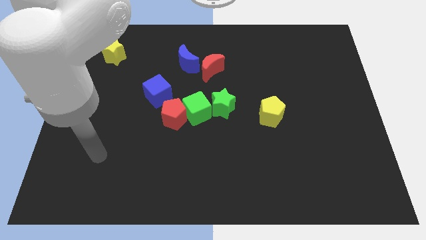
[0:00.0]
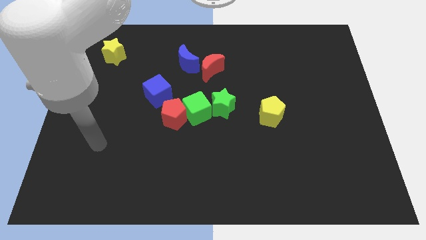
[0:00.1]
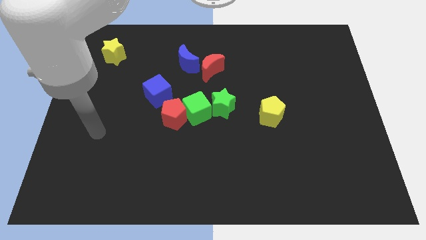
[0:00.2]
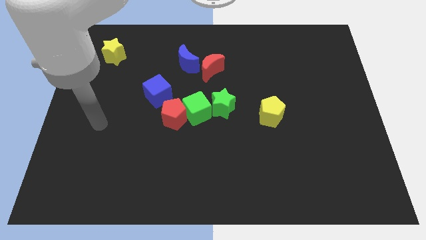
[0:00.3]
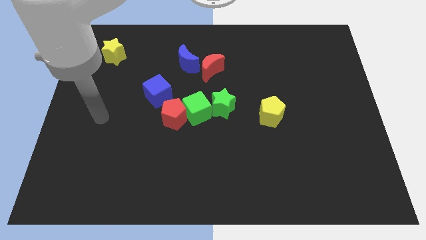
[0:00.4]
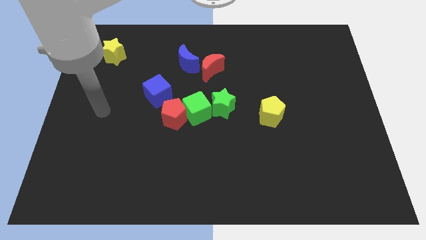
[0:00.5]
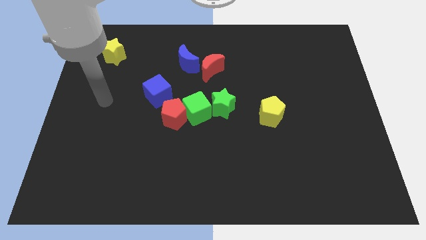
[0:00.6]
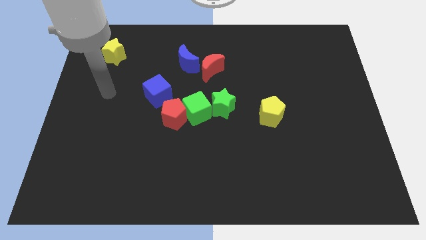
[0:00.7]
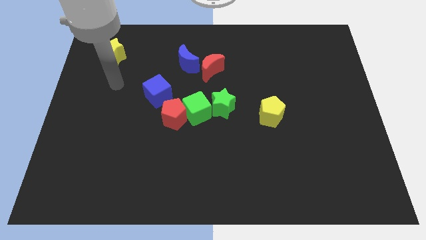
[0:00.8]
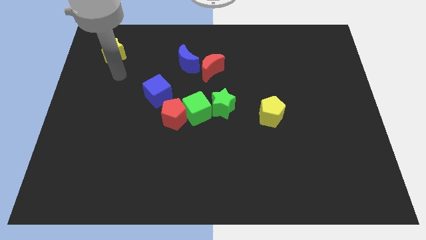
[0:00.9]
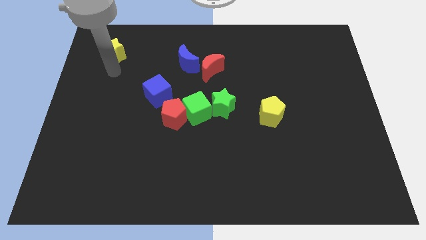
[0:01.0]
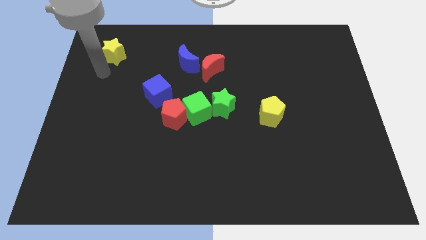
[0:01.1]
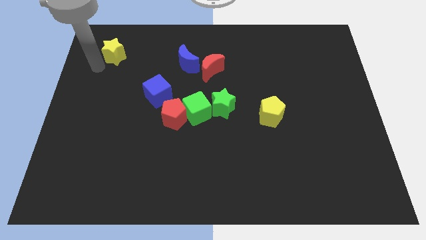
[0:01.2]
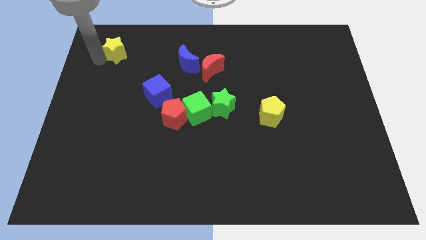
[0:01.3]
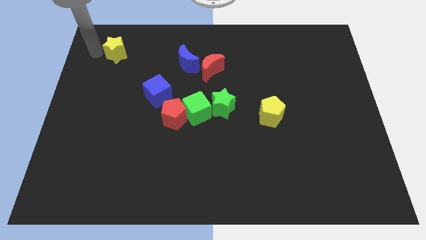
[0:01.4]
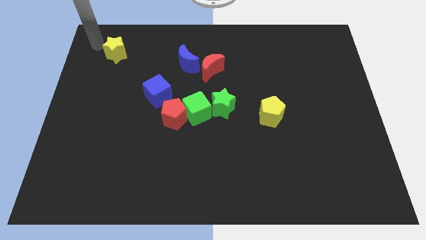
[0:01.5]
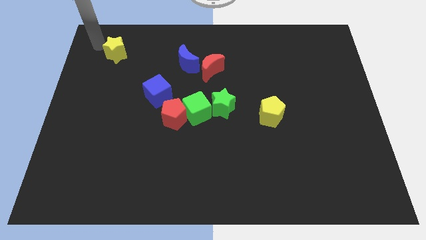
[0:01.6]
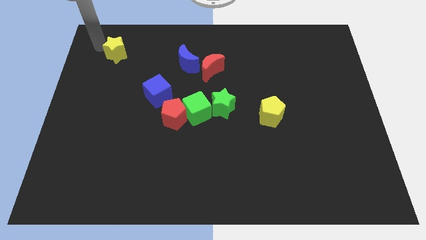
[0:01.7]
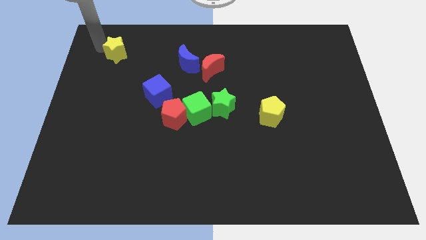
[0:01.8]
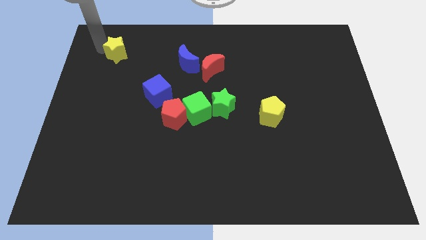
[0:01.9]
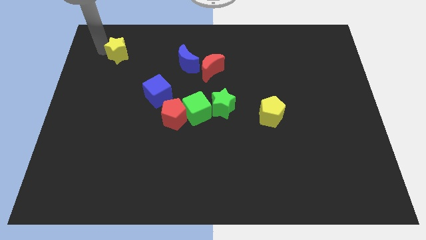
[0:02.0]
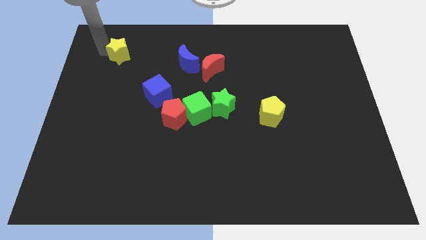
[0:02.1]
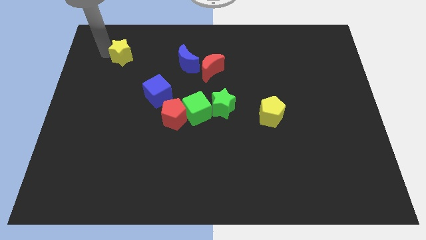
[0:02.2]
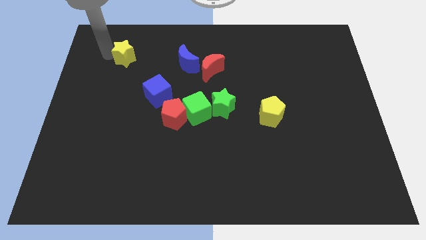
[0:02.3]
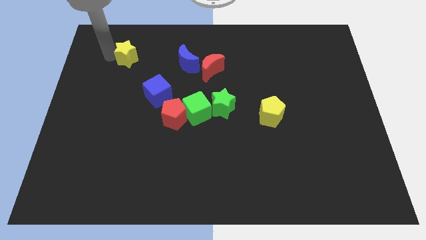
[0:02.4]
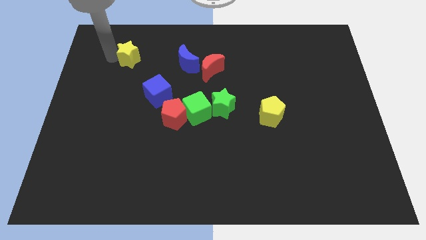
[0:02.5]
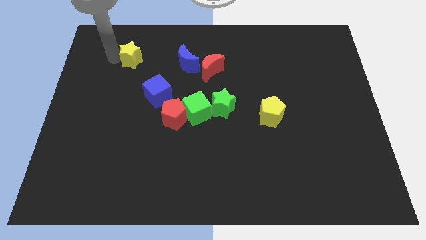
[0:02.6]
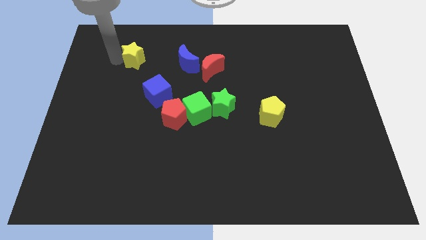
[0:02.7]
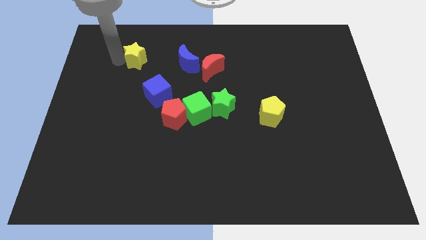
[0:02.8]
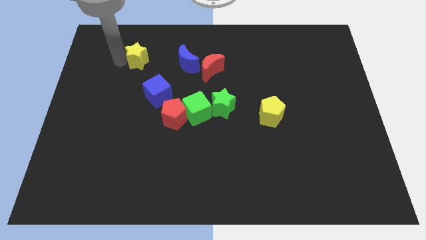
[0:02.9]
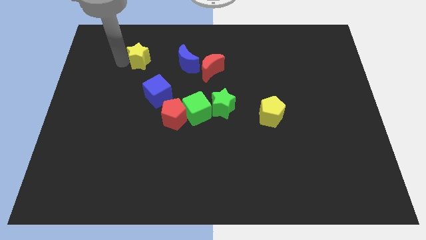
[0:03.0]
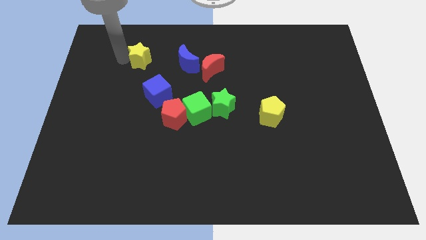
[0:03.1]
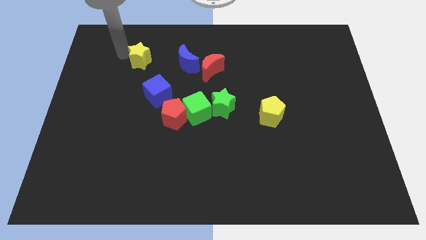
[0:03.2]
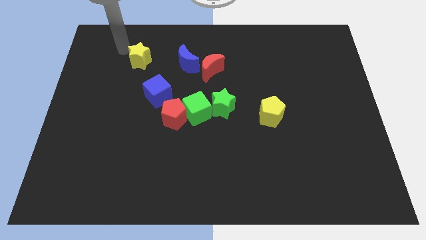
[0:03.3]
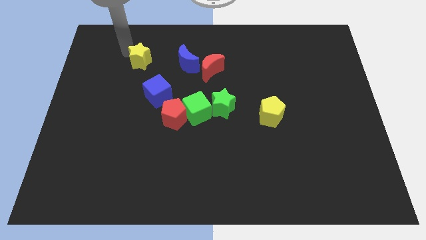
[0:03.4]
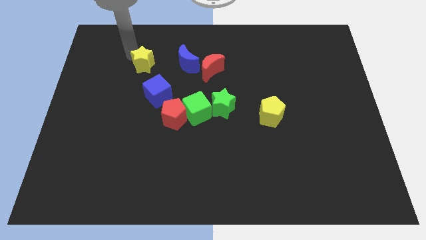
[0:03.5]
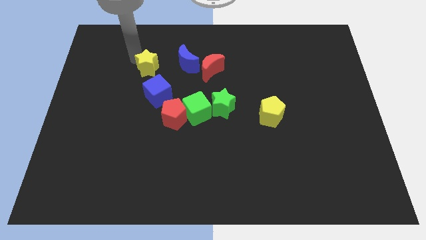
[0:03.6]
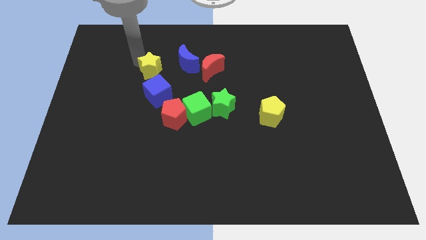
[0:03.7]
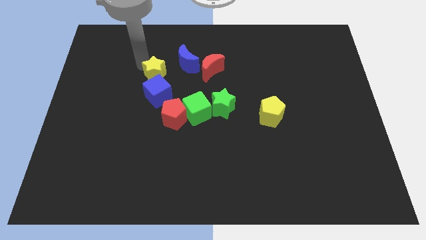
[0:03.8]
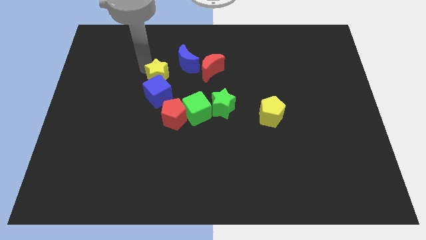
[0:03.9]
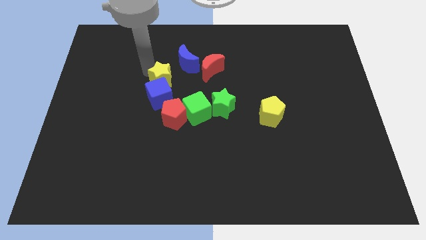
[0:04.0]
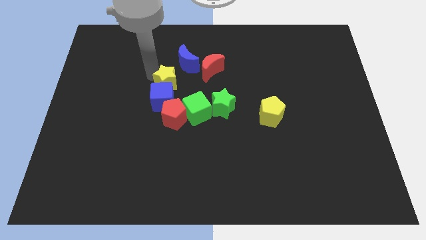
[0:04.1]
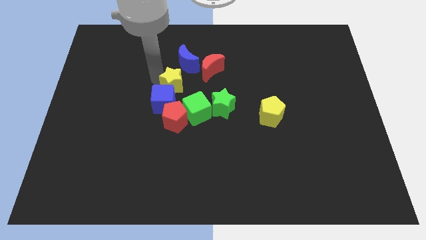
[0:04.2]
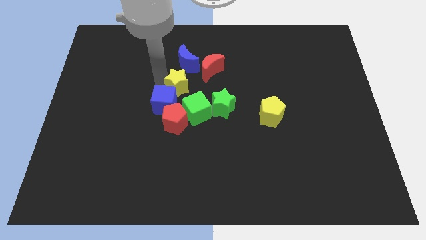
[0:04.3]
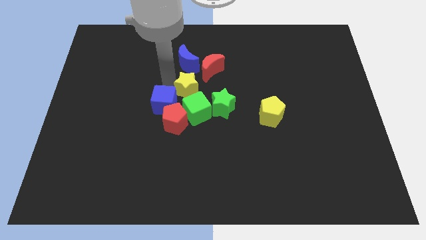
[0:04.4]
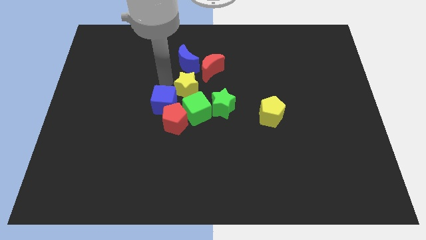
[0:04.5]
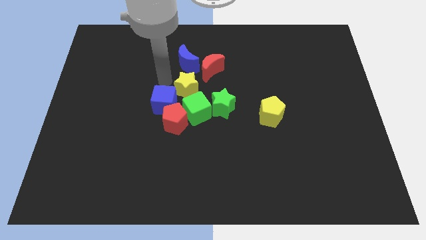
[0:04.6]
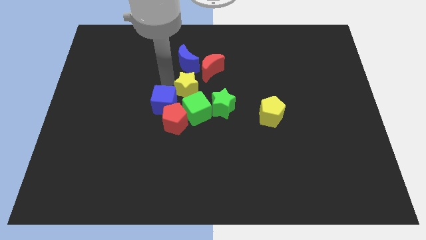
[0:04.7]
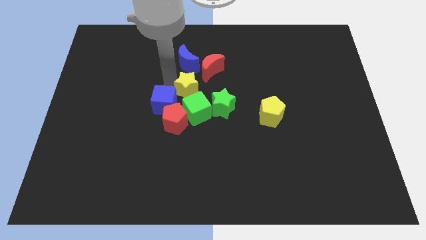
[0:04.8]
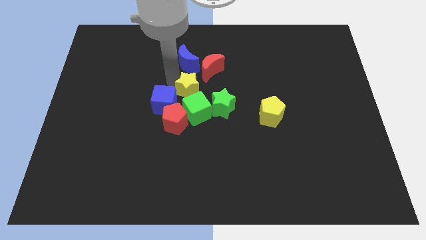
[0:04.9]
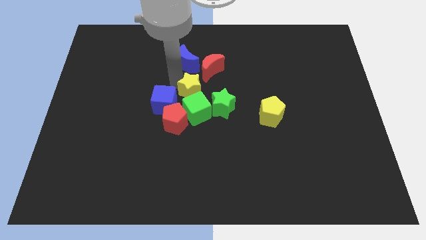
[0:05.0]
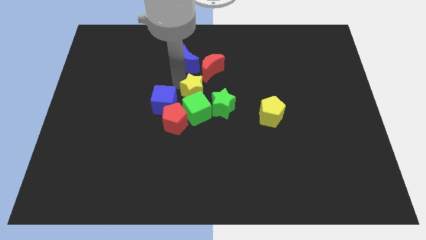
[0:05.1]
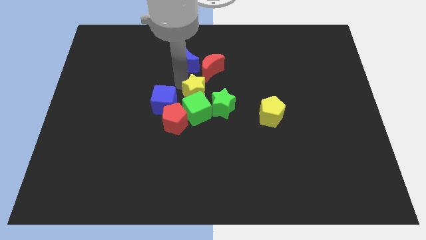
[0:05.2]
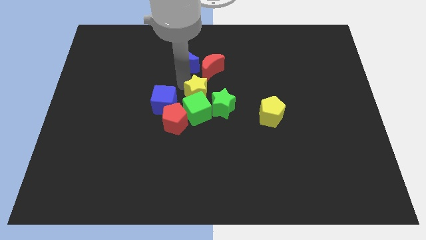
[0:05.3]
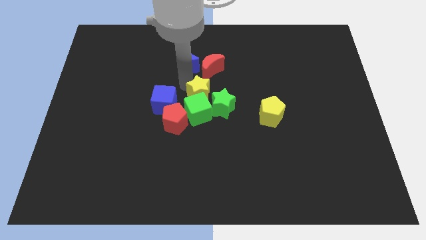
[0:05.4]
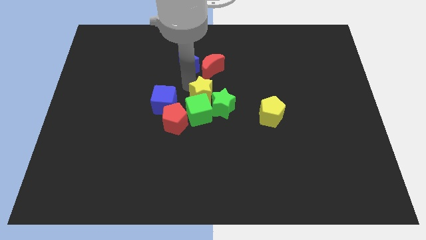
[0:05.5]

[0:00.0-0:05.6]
push the yellow star next to the green star

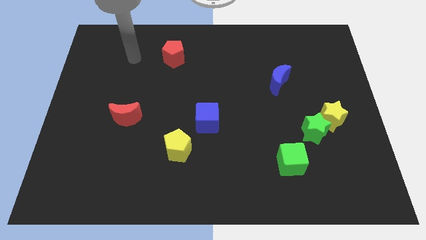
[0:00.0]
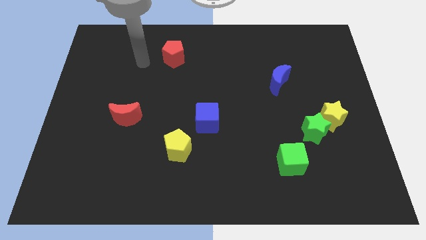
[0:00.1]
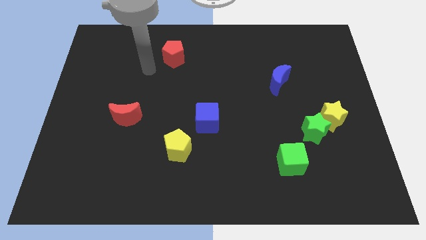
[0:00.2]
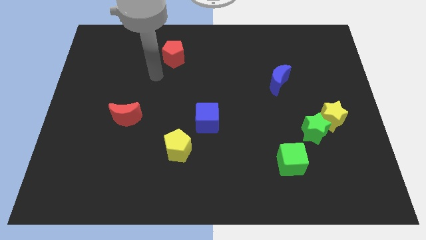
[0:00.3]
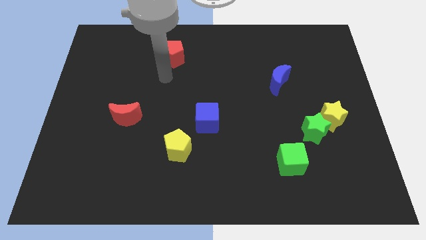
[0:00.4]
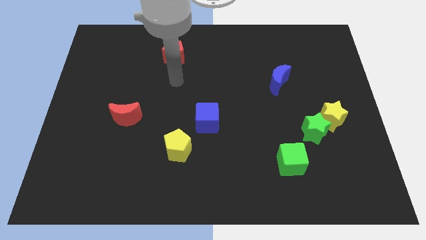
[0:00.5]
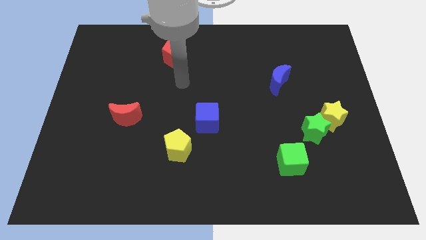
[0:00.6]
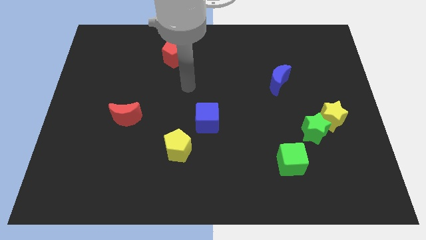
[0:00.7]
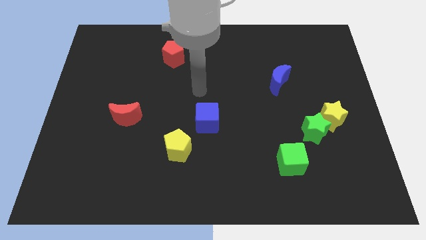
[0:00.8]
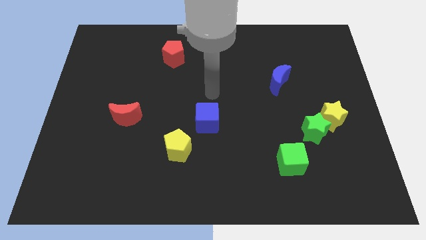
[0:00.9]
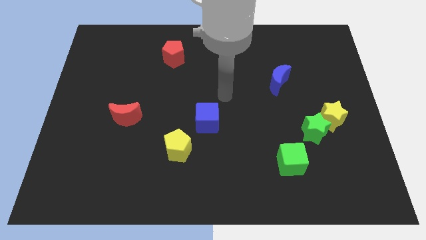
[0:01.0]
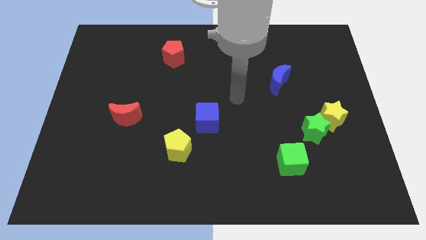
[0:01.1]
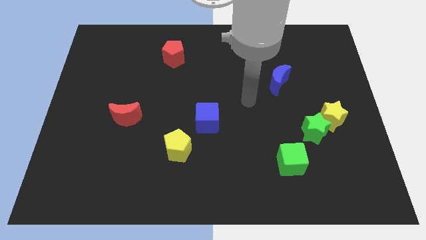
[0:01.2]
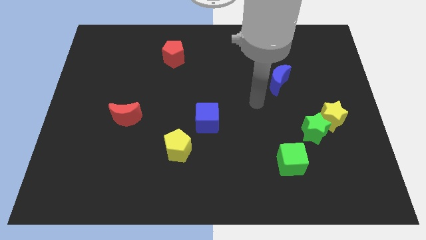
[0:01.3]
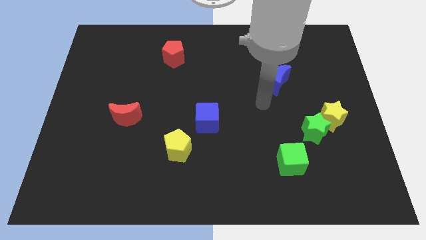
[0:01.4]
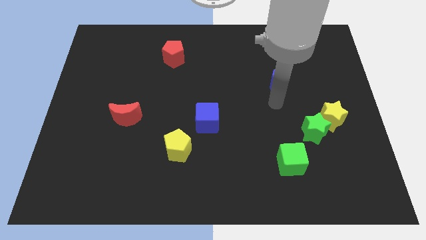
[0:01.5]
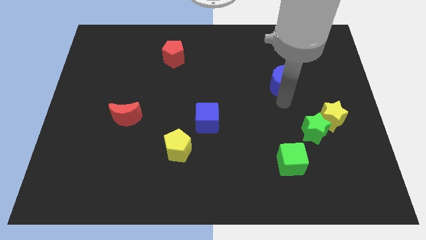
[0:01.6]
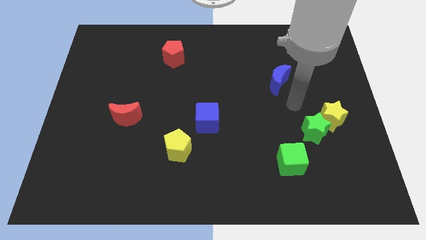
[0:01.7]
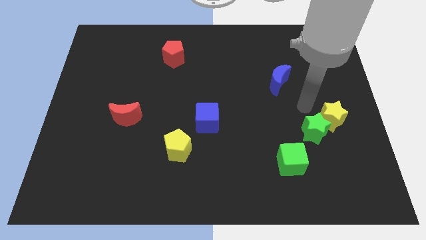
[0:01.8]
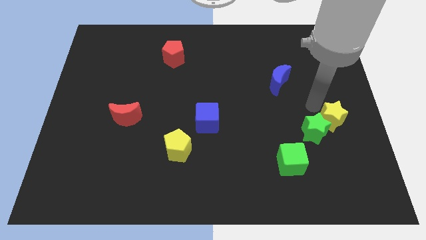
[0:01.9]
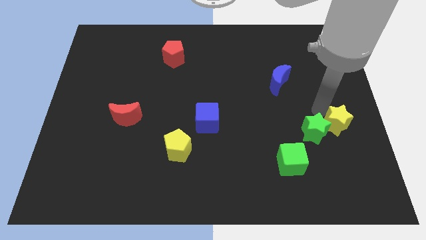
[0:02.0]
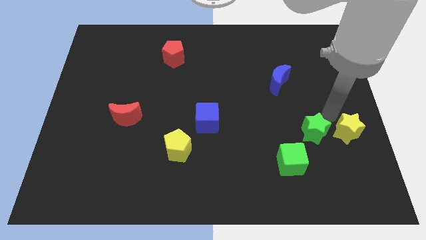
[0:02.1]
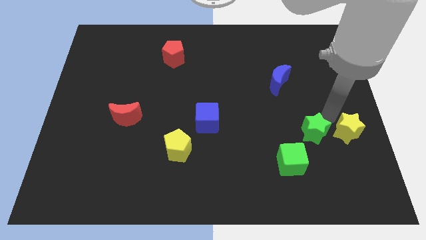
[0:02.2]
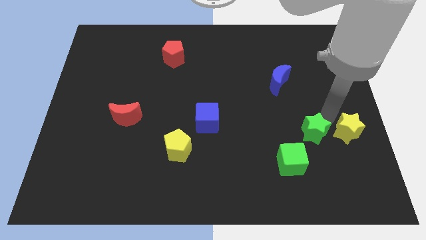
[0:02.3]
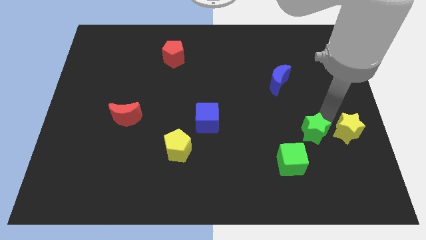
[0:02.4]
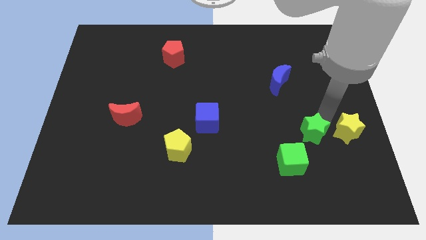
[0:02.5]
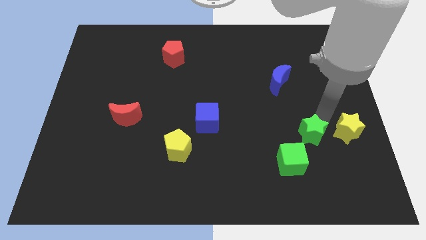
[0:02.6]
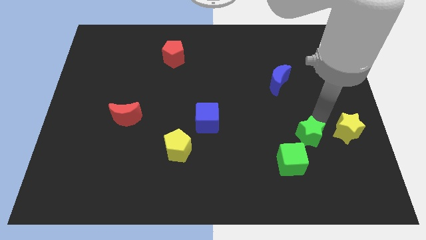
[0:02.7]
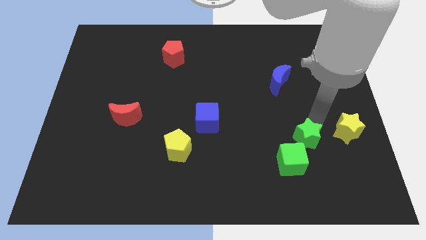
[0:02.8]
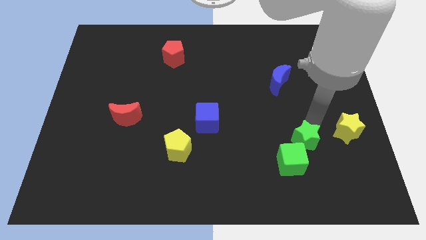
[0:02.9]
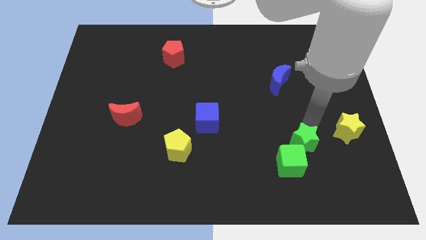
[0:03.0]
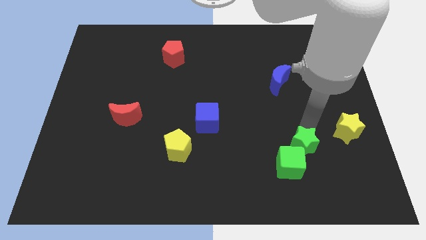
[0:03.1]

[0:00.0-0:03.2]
slide the green star to the green cube
